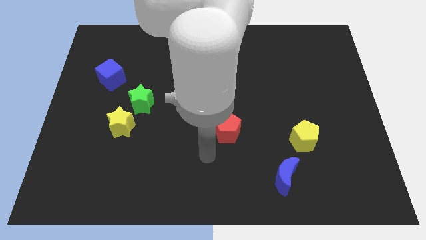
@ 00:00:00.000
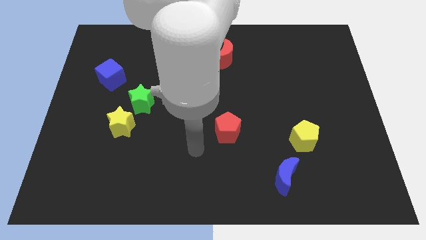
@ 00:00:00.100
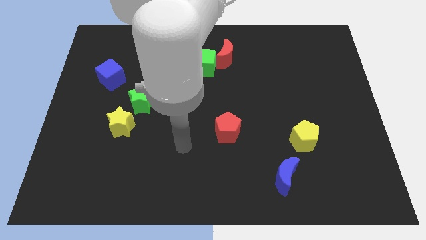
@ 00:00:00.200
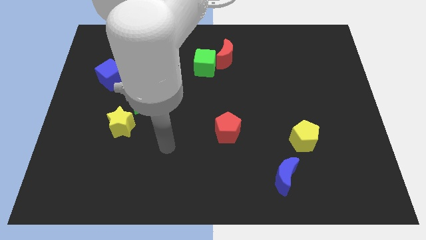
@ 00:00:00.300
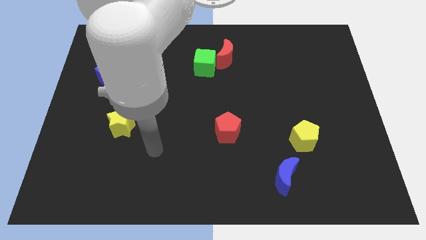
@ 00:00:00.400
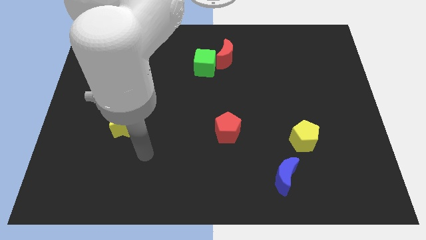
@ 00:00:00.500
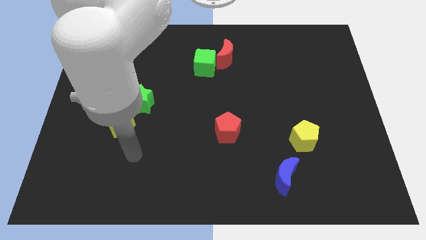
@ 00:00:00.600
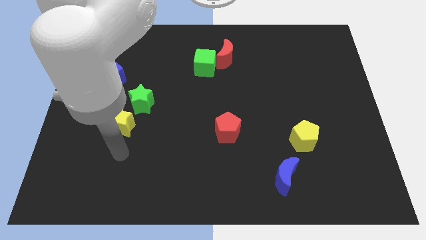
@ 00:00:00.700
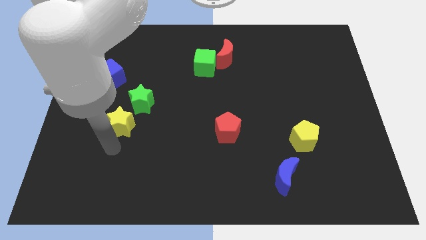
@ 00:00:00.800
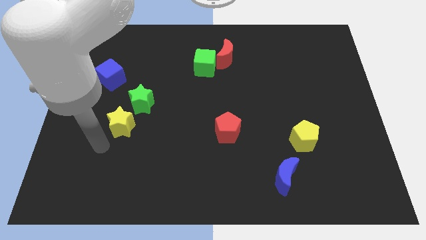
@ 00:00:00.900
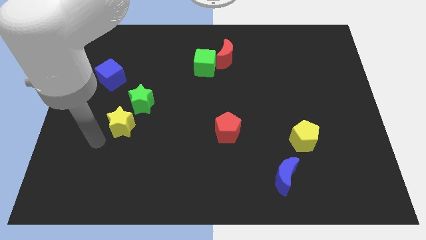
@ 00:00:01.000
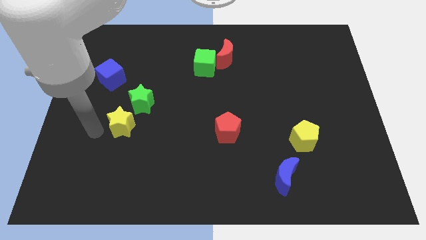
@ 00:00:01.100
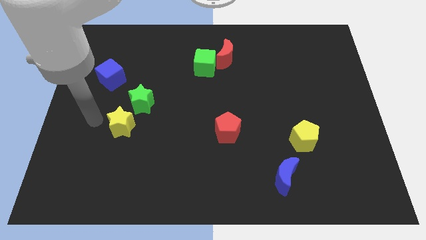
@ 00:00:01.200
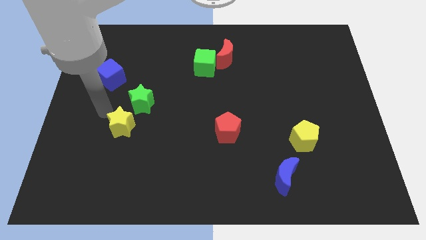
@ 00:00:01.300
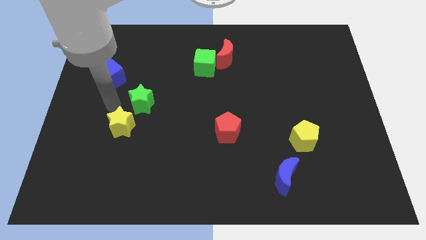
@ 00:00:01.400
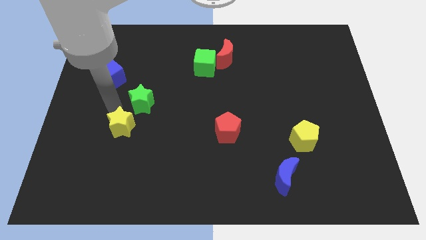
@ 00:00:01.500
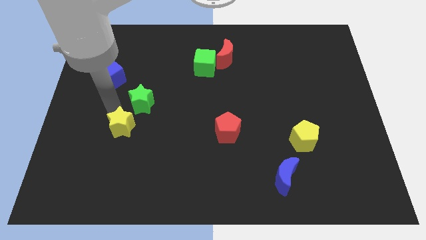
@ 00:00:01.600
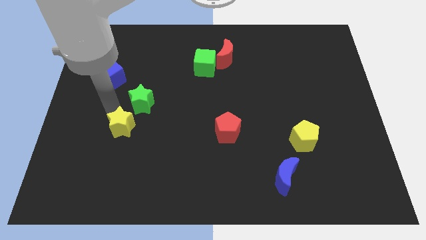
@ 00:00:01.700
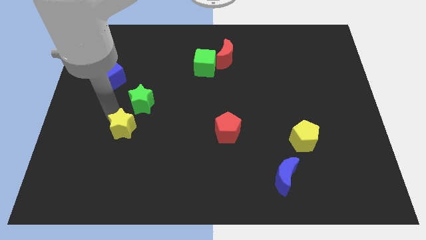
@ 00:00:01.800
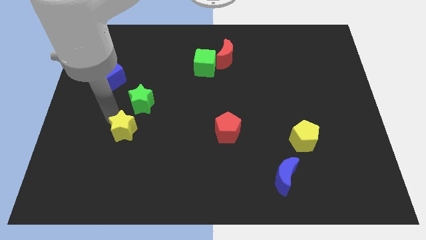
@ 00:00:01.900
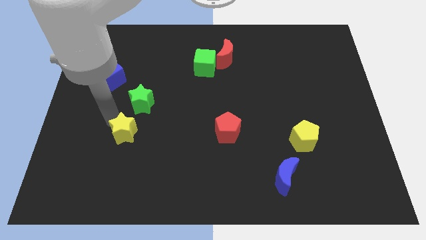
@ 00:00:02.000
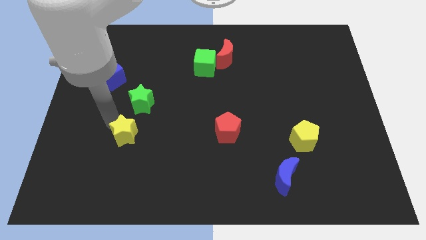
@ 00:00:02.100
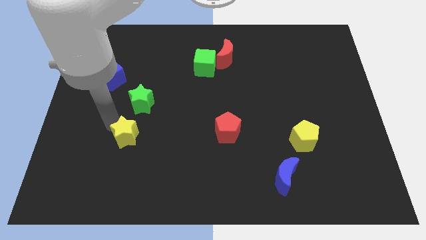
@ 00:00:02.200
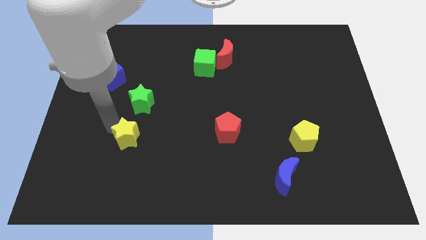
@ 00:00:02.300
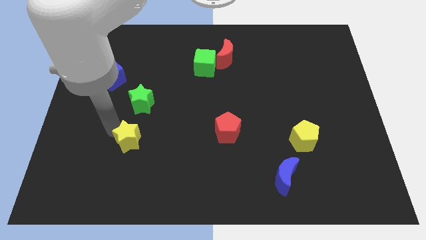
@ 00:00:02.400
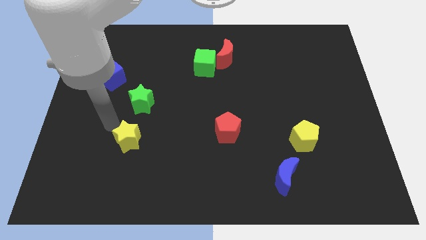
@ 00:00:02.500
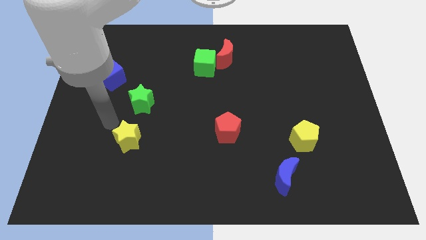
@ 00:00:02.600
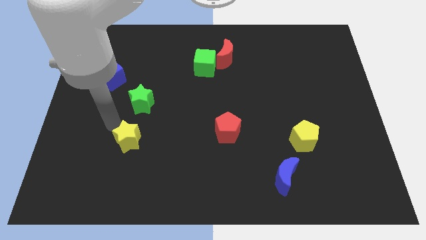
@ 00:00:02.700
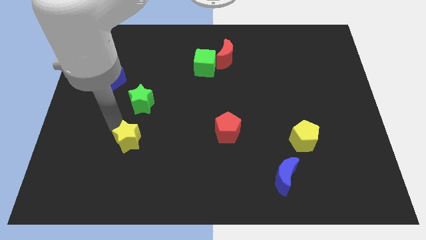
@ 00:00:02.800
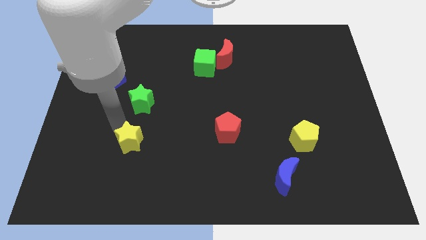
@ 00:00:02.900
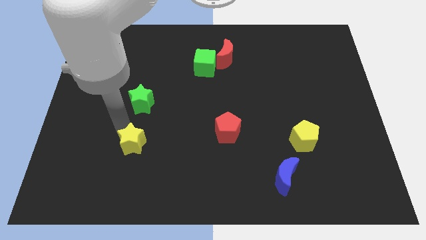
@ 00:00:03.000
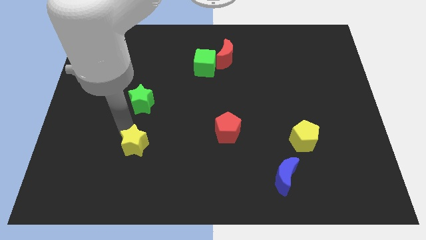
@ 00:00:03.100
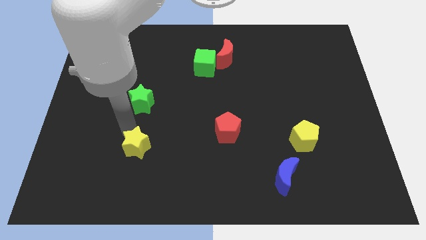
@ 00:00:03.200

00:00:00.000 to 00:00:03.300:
move the yellow star a little bit diagonally downwards and right

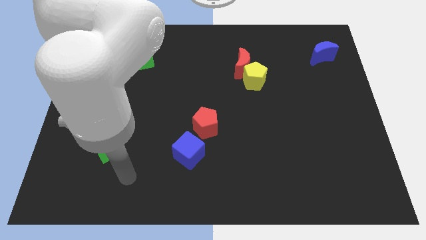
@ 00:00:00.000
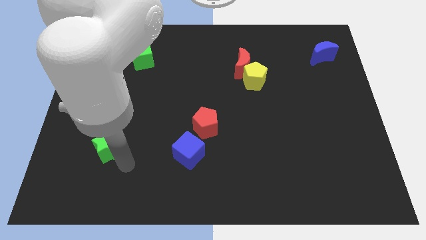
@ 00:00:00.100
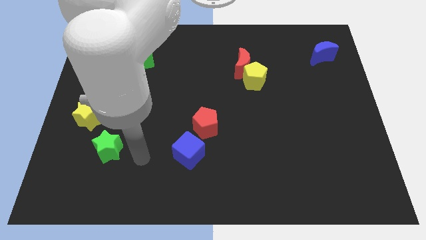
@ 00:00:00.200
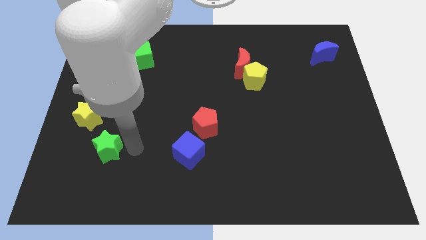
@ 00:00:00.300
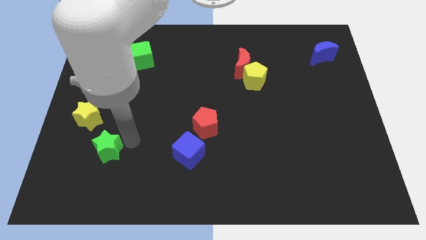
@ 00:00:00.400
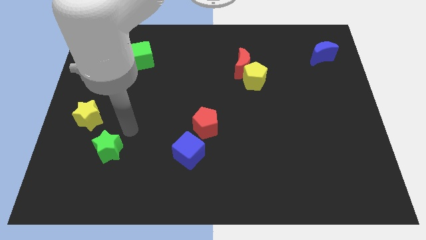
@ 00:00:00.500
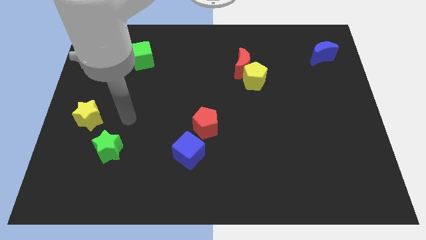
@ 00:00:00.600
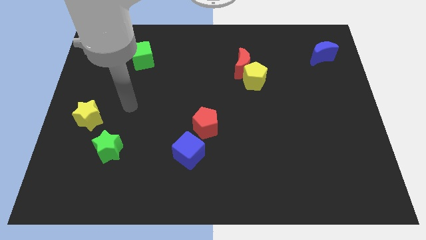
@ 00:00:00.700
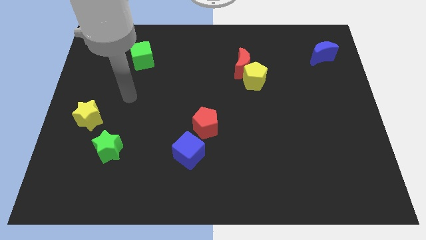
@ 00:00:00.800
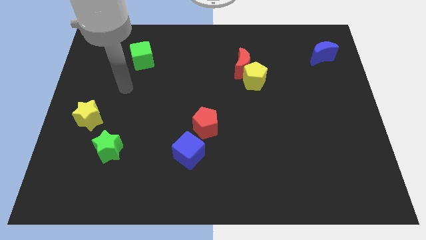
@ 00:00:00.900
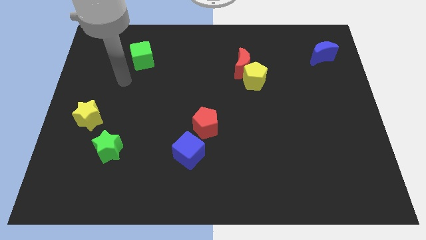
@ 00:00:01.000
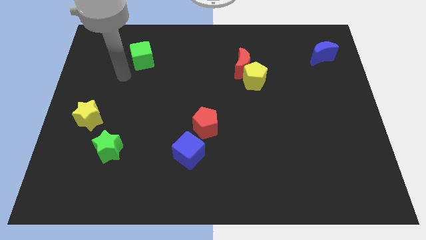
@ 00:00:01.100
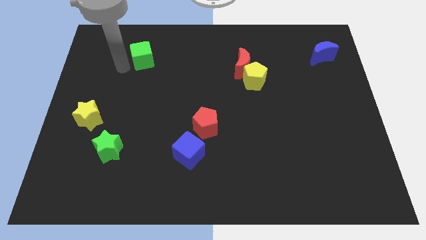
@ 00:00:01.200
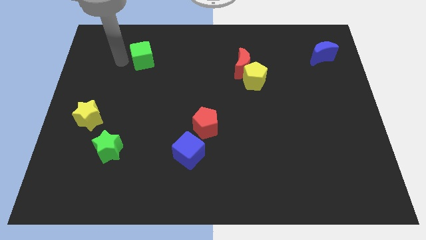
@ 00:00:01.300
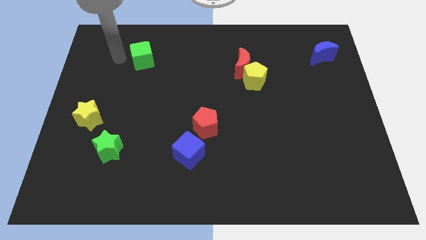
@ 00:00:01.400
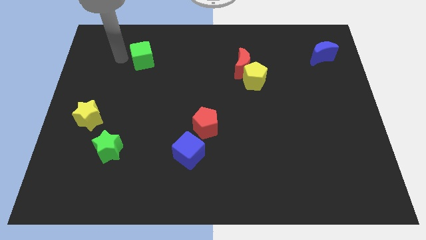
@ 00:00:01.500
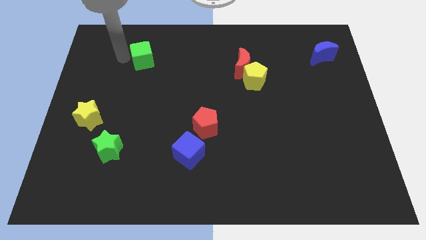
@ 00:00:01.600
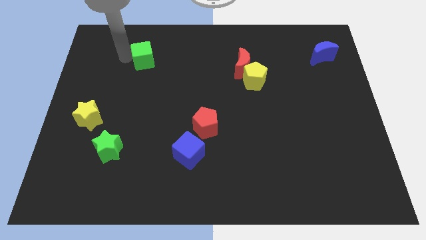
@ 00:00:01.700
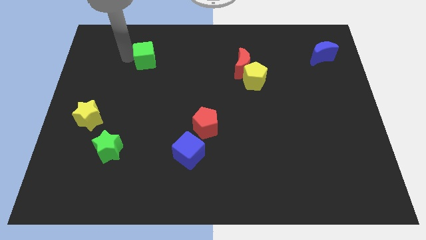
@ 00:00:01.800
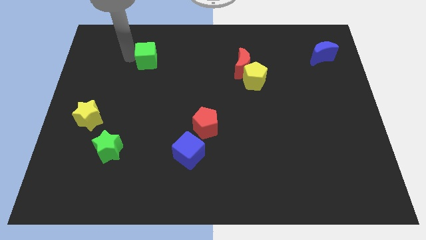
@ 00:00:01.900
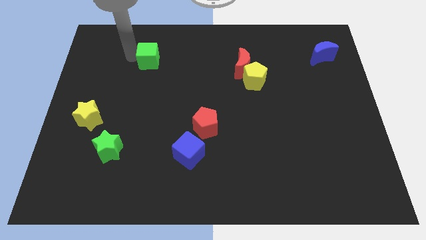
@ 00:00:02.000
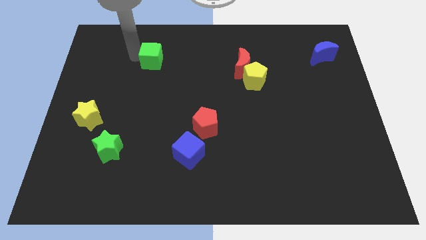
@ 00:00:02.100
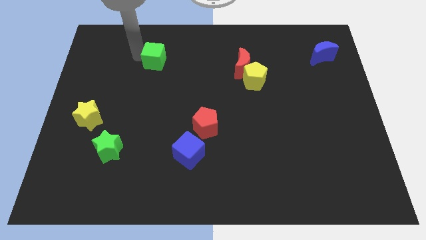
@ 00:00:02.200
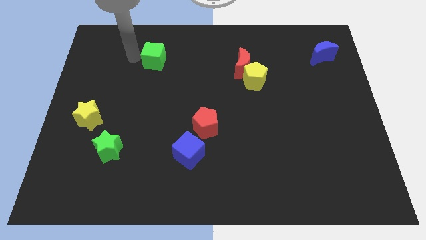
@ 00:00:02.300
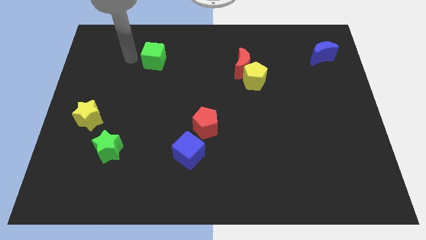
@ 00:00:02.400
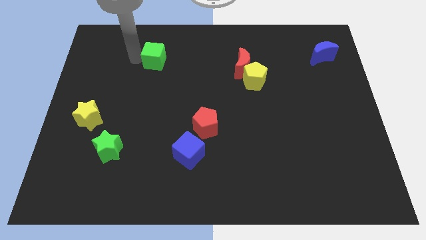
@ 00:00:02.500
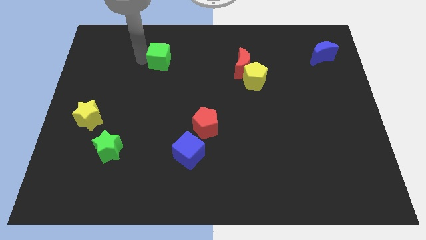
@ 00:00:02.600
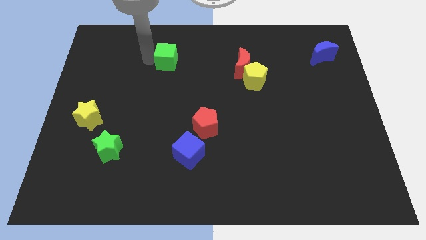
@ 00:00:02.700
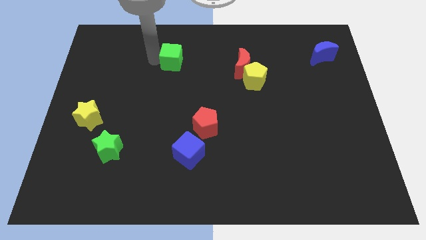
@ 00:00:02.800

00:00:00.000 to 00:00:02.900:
slightly move the green cube right

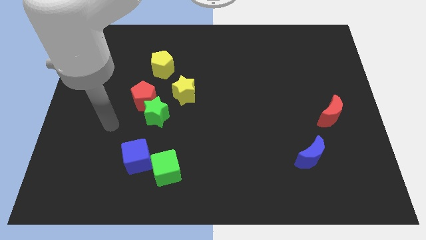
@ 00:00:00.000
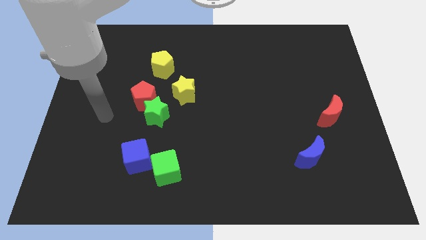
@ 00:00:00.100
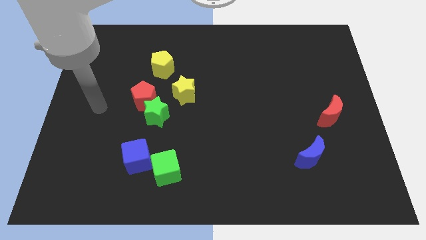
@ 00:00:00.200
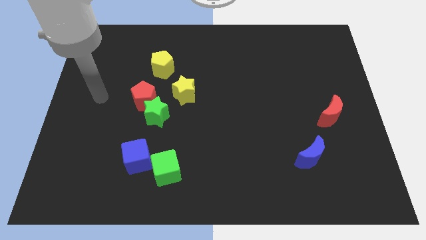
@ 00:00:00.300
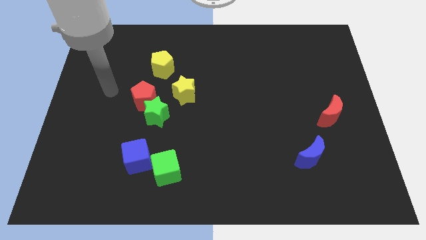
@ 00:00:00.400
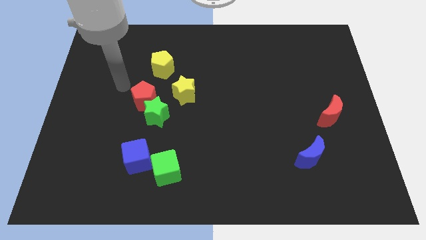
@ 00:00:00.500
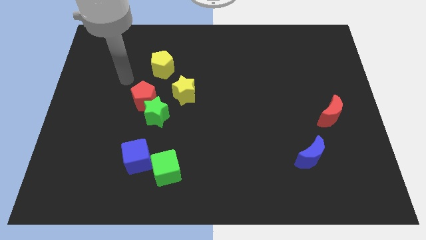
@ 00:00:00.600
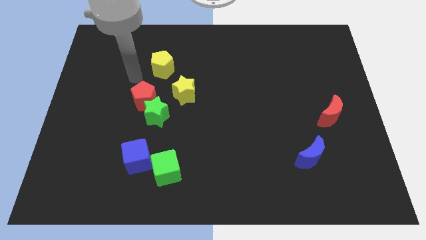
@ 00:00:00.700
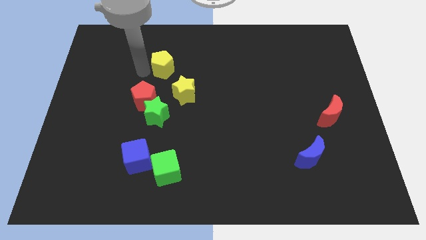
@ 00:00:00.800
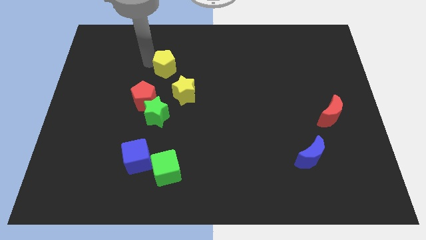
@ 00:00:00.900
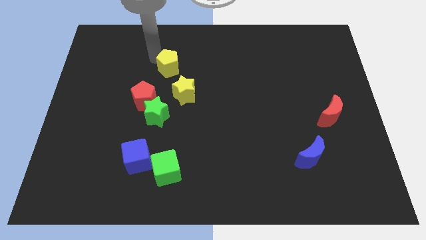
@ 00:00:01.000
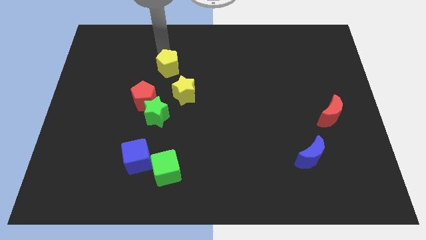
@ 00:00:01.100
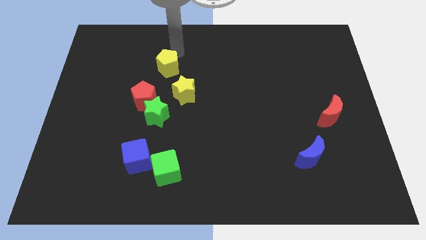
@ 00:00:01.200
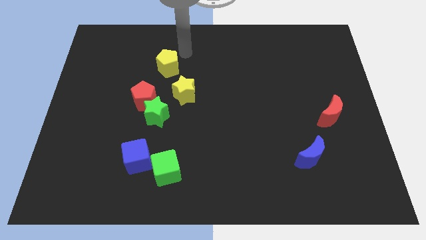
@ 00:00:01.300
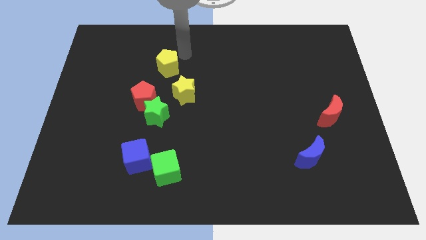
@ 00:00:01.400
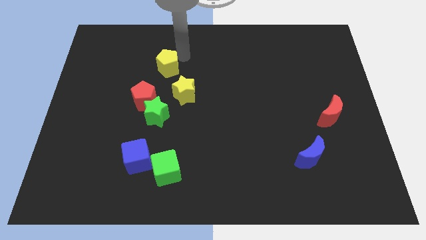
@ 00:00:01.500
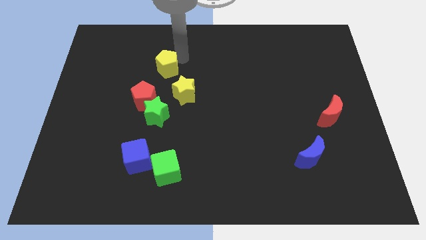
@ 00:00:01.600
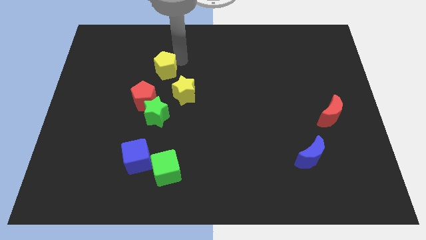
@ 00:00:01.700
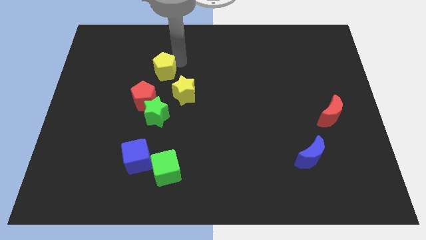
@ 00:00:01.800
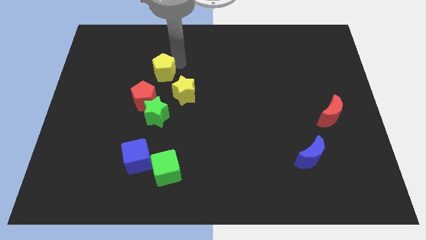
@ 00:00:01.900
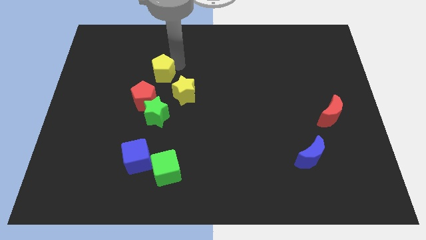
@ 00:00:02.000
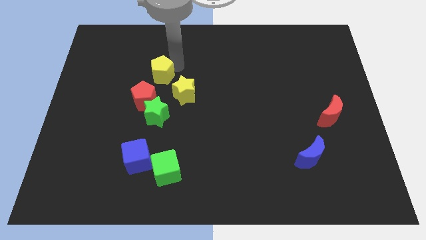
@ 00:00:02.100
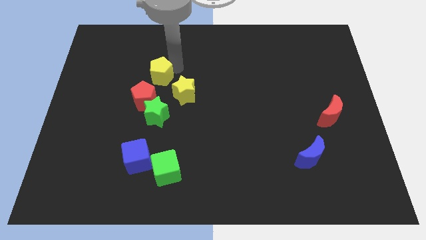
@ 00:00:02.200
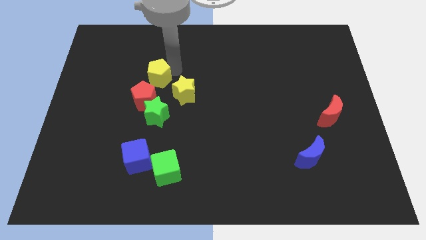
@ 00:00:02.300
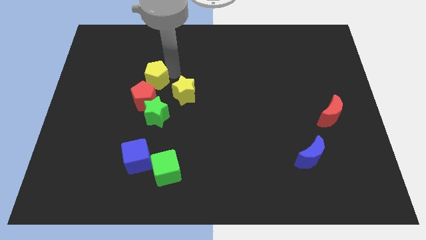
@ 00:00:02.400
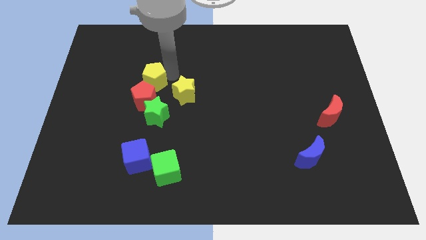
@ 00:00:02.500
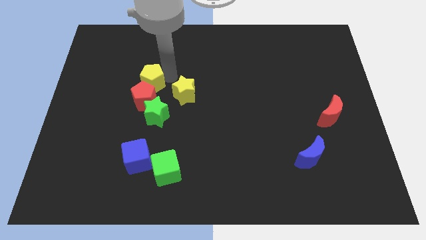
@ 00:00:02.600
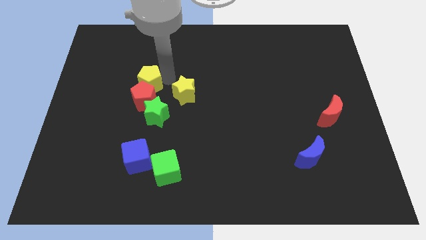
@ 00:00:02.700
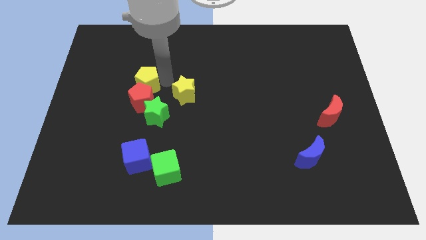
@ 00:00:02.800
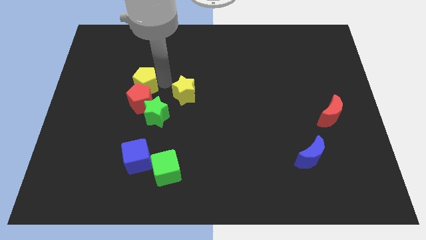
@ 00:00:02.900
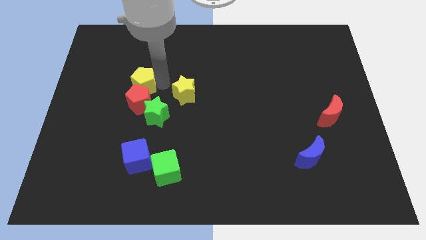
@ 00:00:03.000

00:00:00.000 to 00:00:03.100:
push the yellow pentagon down and left diagonally a bit
